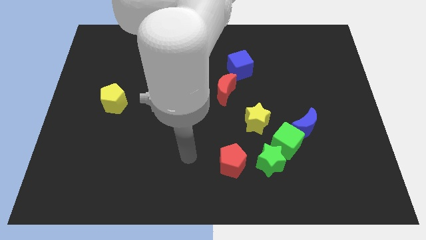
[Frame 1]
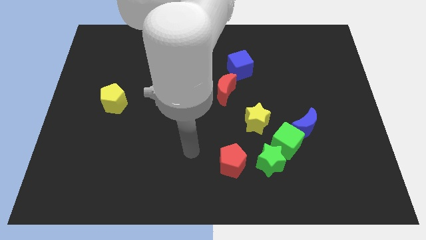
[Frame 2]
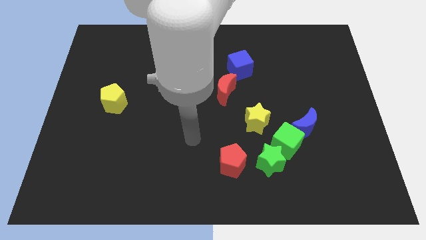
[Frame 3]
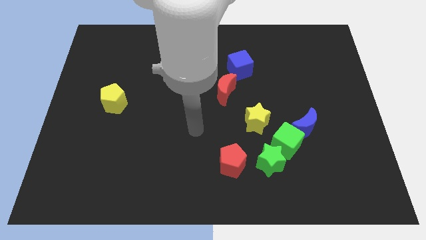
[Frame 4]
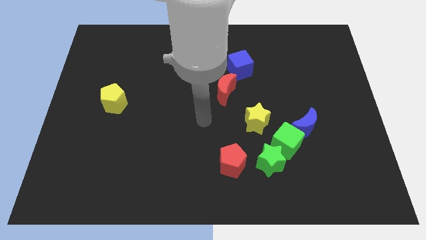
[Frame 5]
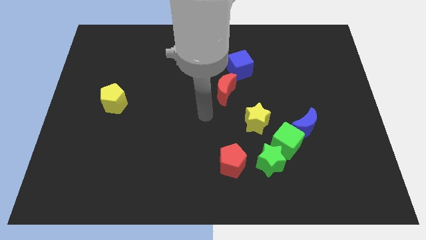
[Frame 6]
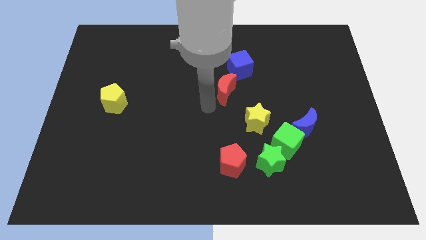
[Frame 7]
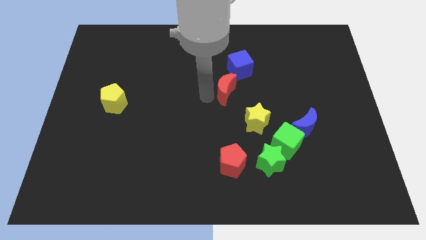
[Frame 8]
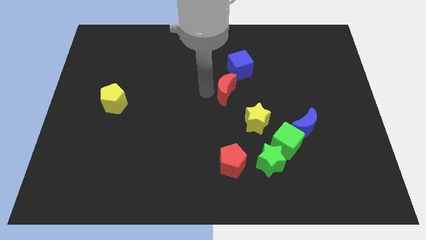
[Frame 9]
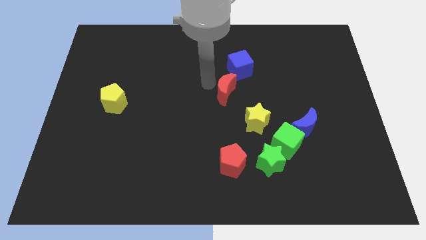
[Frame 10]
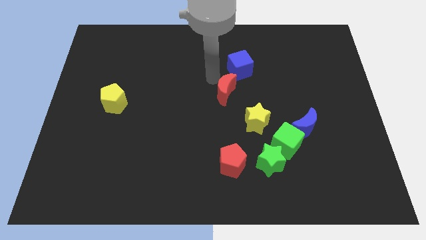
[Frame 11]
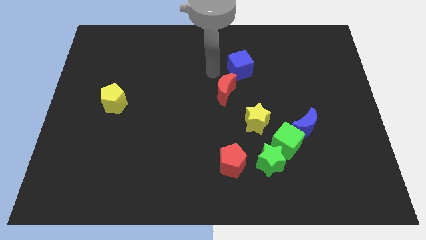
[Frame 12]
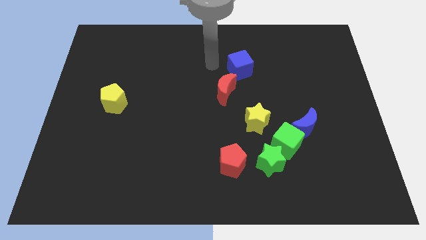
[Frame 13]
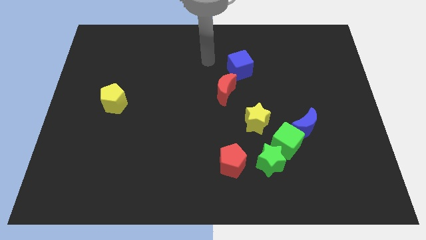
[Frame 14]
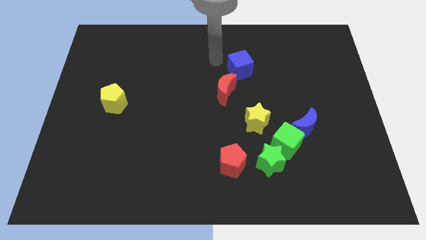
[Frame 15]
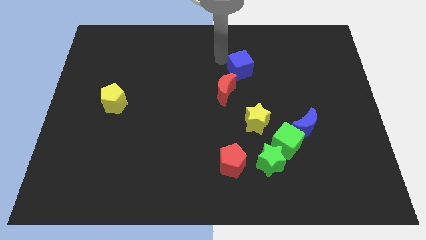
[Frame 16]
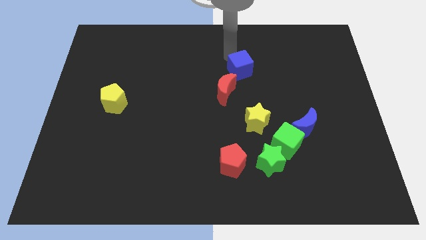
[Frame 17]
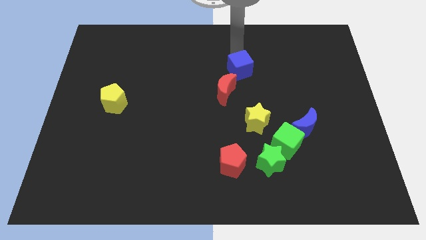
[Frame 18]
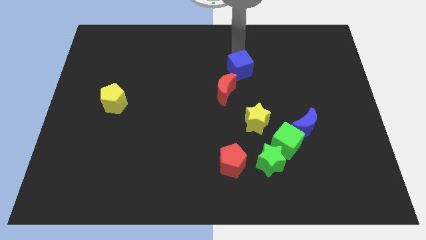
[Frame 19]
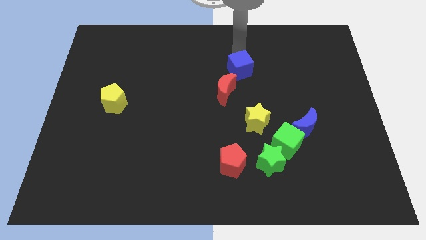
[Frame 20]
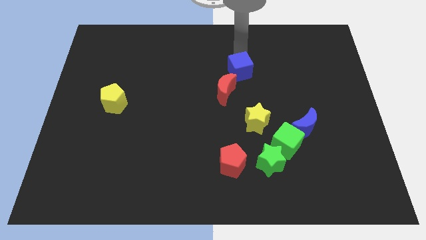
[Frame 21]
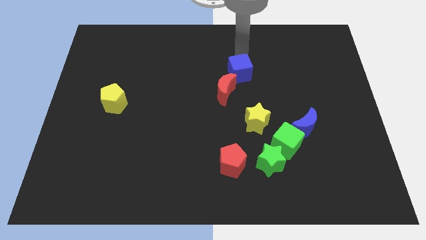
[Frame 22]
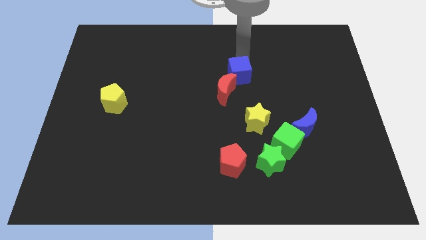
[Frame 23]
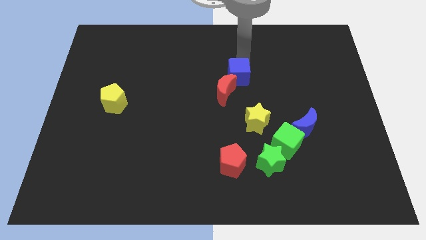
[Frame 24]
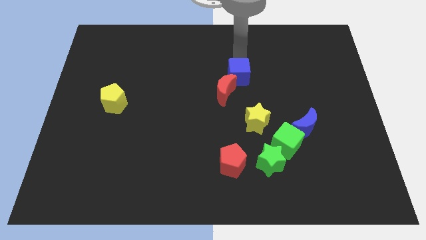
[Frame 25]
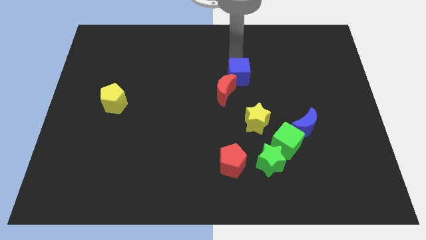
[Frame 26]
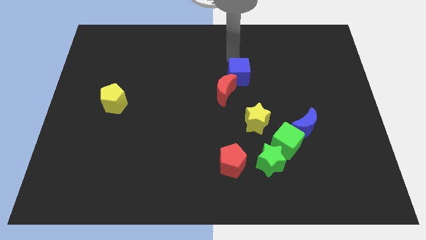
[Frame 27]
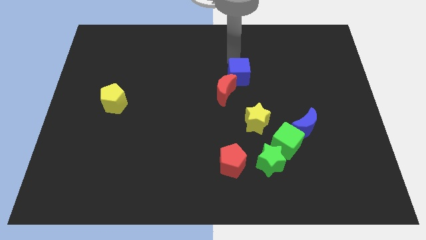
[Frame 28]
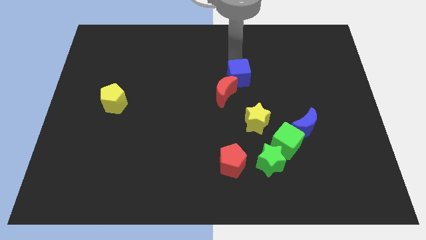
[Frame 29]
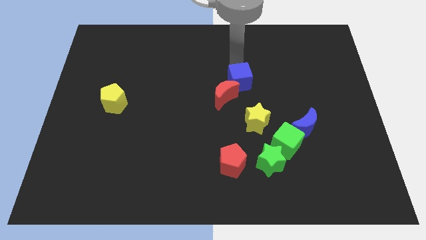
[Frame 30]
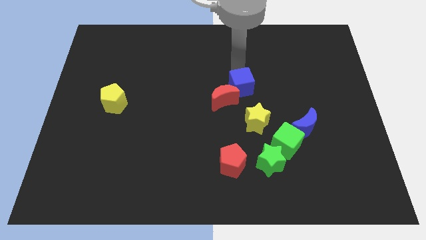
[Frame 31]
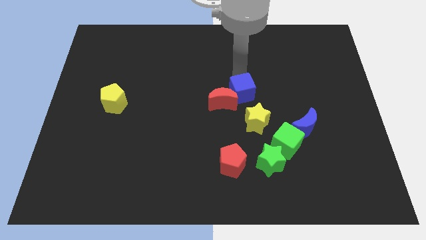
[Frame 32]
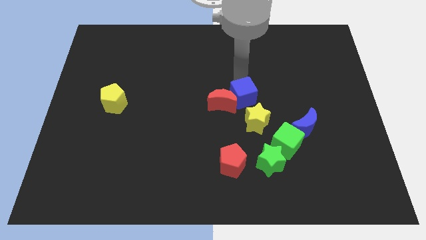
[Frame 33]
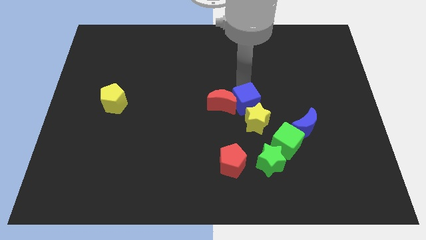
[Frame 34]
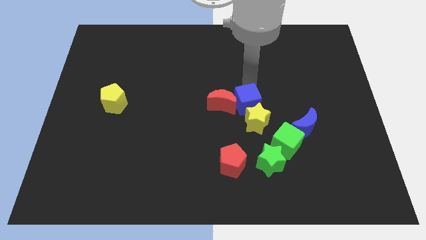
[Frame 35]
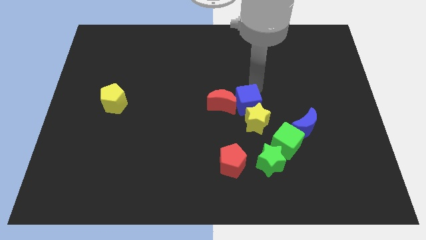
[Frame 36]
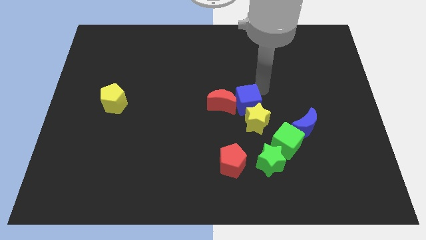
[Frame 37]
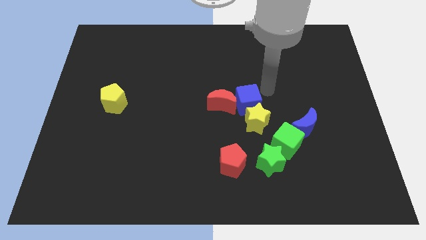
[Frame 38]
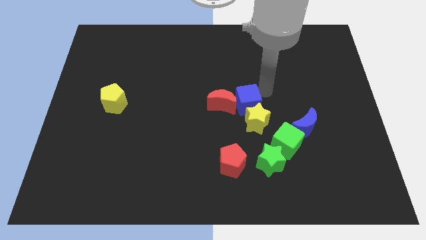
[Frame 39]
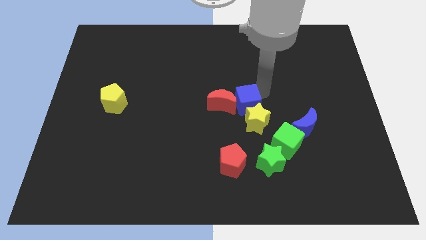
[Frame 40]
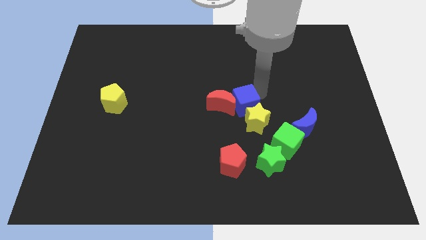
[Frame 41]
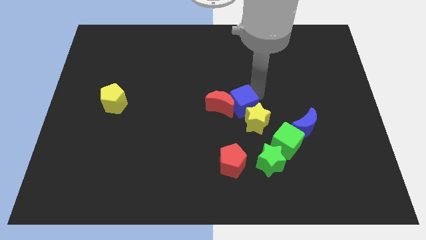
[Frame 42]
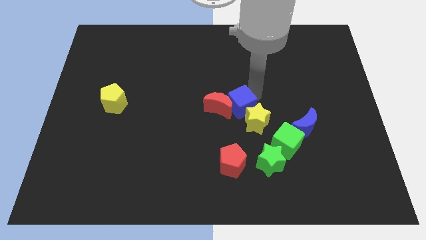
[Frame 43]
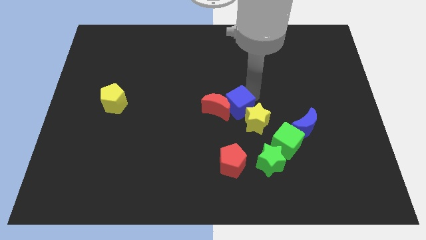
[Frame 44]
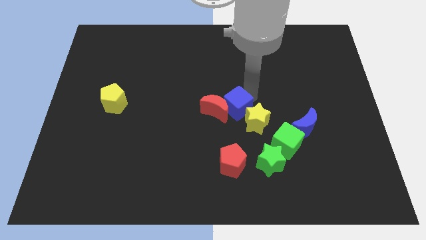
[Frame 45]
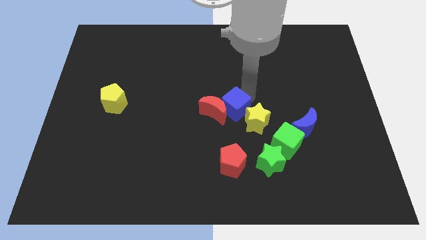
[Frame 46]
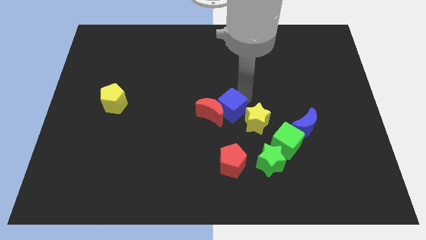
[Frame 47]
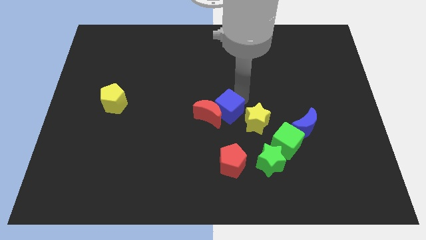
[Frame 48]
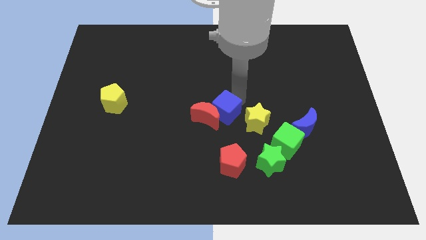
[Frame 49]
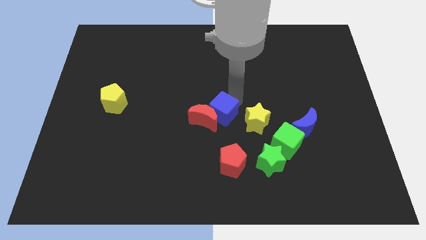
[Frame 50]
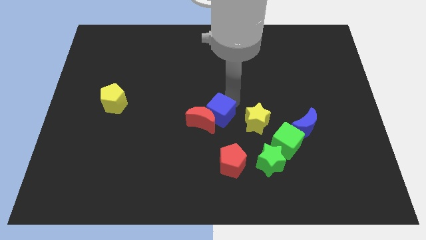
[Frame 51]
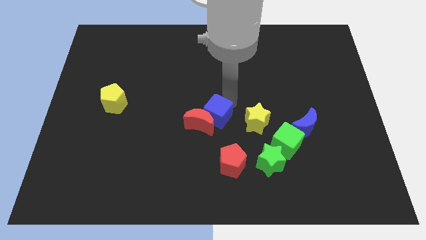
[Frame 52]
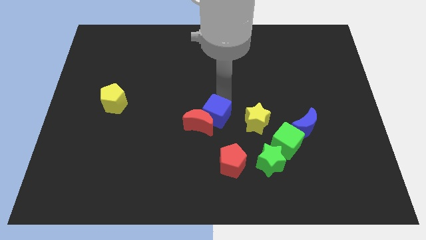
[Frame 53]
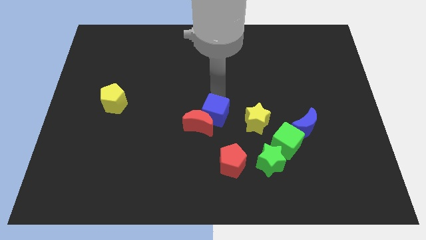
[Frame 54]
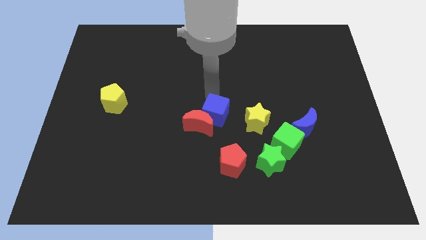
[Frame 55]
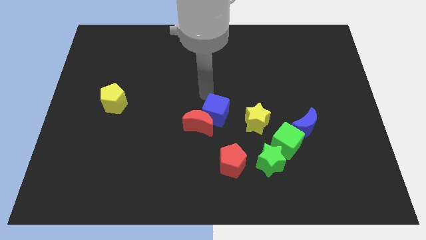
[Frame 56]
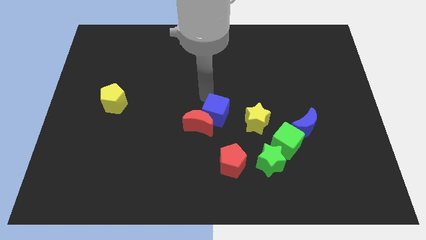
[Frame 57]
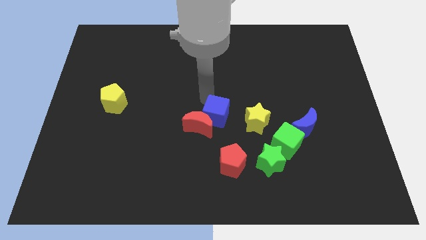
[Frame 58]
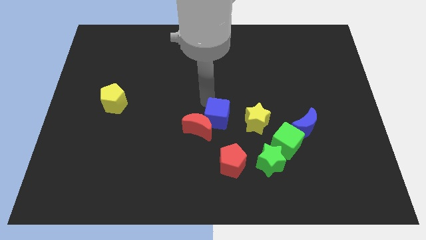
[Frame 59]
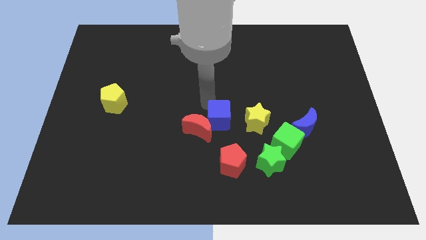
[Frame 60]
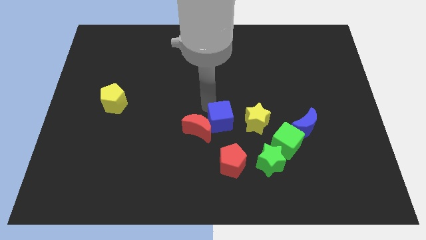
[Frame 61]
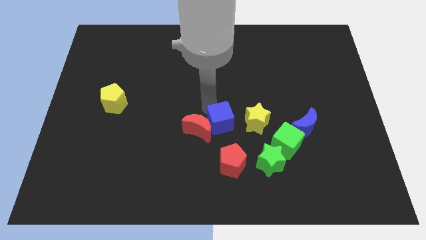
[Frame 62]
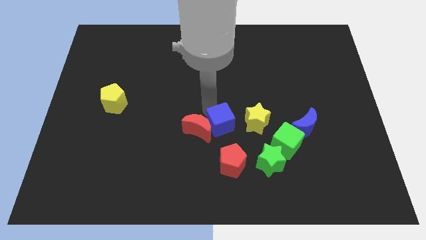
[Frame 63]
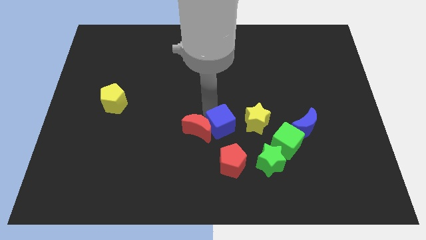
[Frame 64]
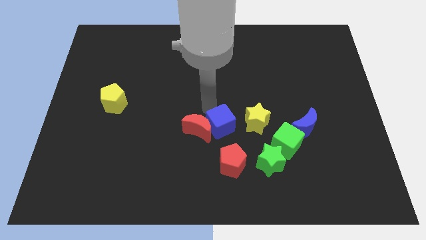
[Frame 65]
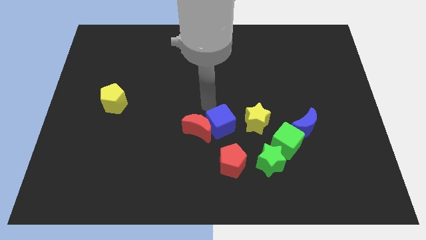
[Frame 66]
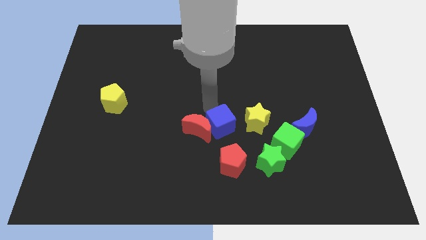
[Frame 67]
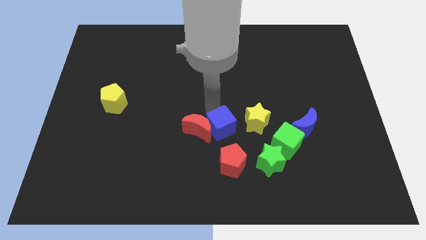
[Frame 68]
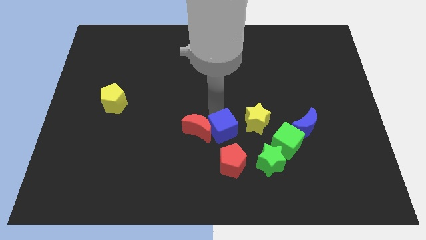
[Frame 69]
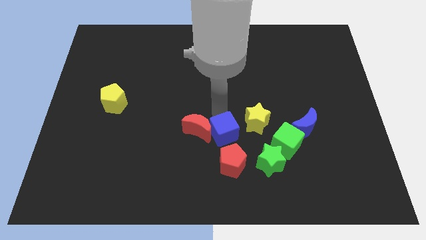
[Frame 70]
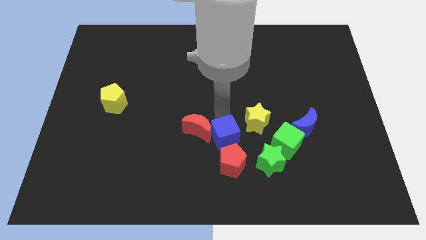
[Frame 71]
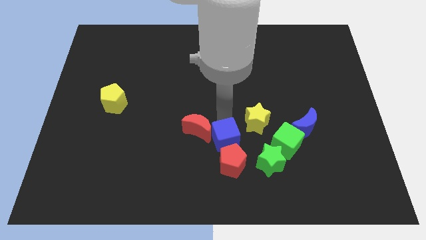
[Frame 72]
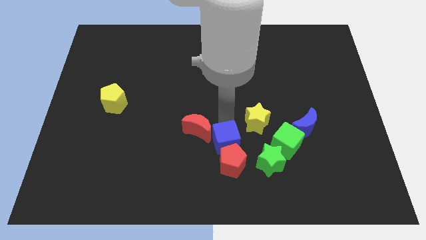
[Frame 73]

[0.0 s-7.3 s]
put the blue cube next to the red pentagon

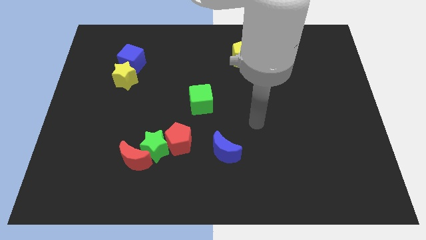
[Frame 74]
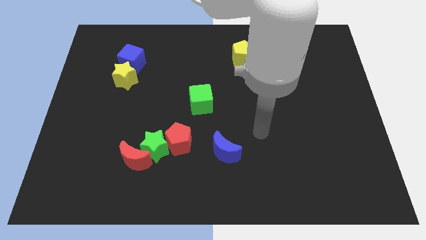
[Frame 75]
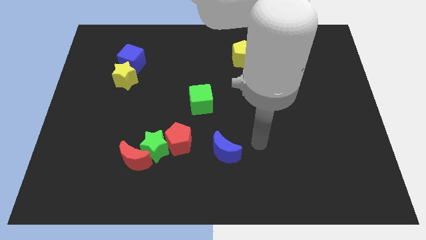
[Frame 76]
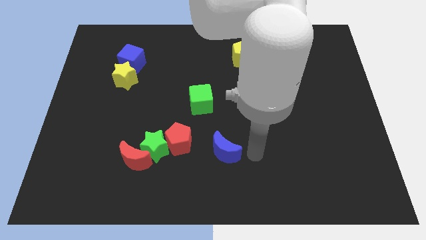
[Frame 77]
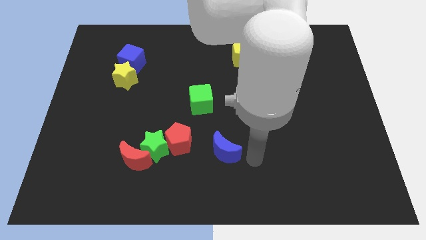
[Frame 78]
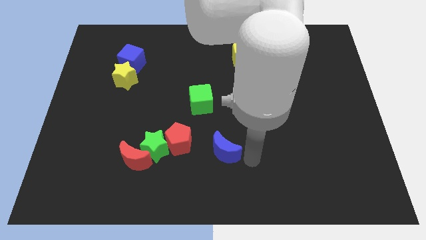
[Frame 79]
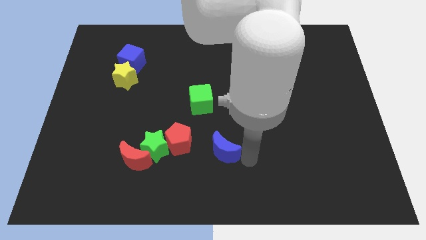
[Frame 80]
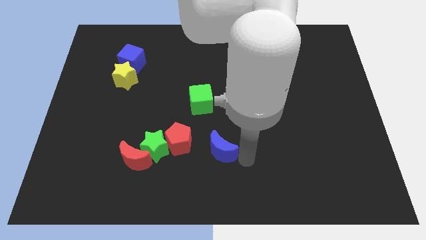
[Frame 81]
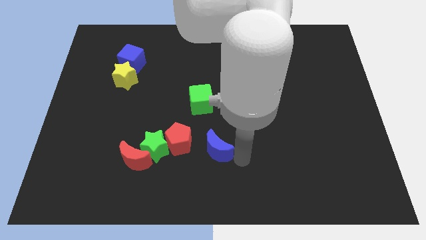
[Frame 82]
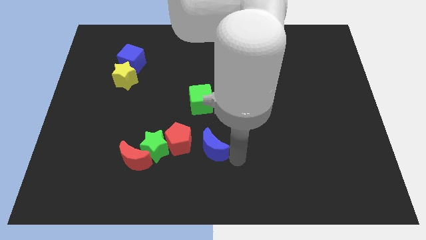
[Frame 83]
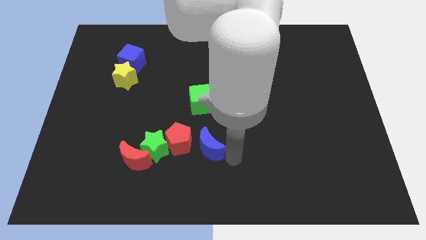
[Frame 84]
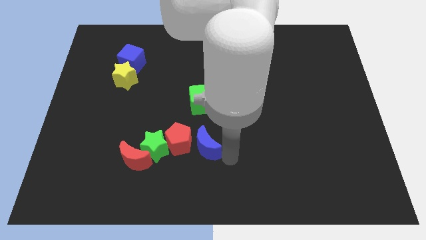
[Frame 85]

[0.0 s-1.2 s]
move the blue moon next to the red pentagon

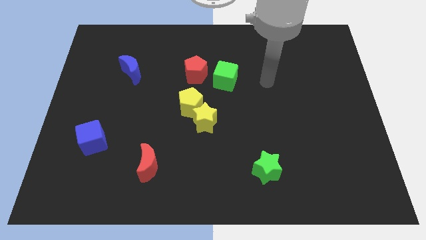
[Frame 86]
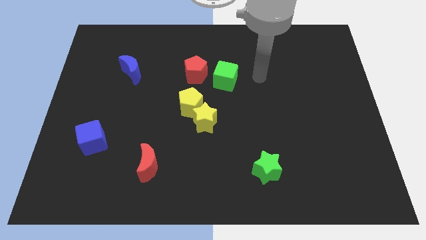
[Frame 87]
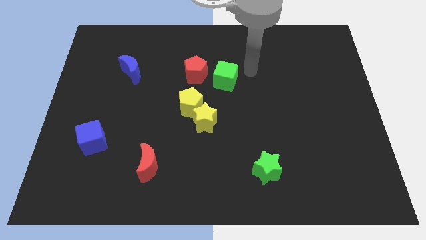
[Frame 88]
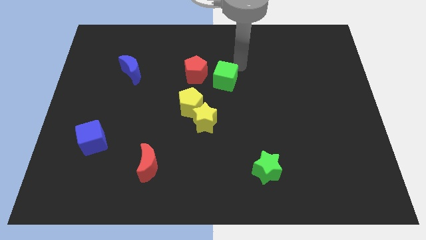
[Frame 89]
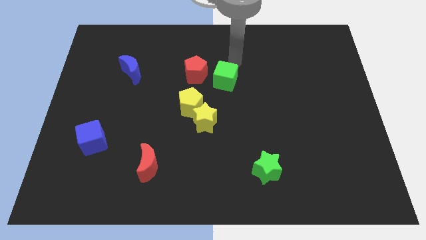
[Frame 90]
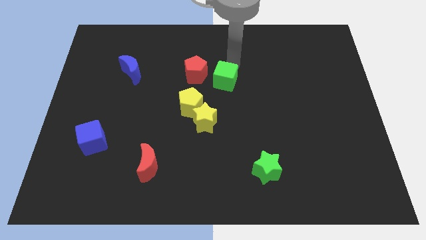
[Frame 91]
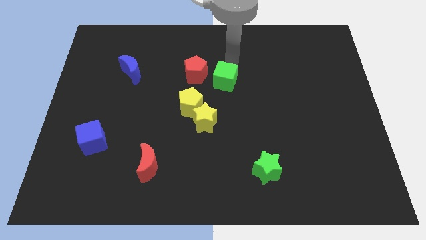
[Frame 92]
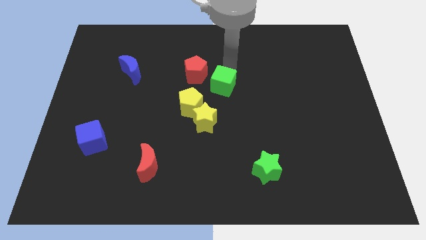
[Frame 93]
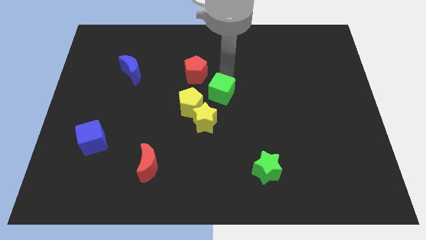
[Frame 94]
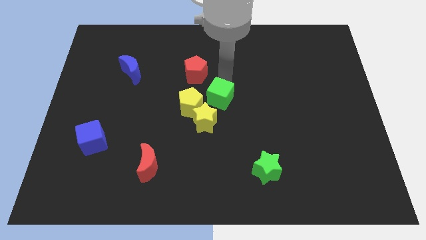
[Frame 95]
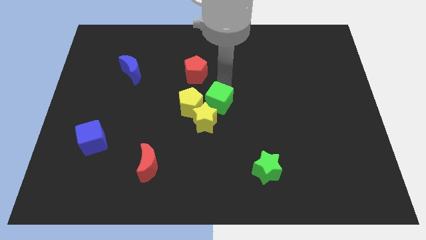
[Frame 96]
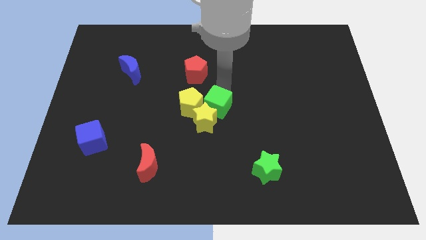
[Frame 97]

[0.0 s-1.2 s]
put the green cube towards the yellow star
